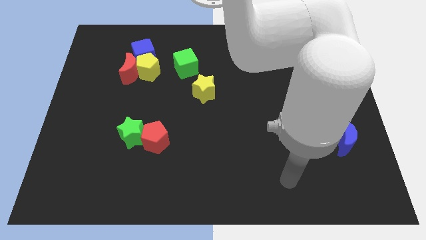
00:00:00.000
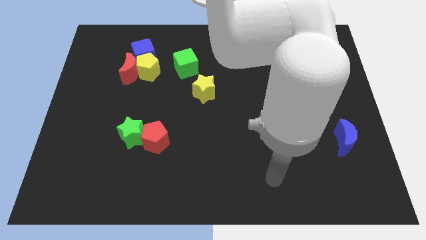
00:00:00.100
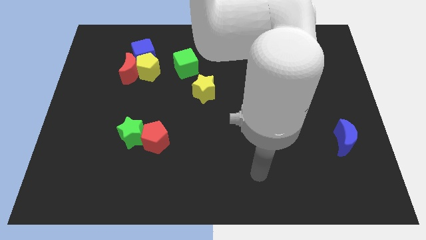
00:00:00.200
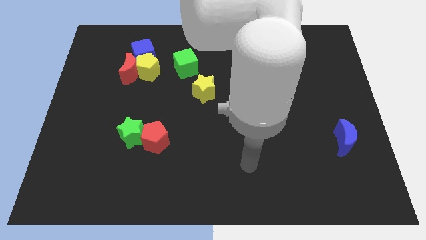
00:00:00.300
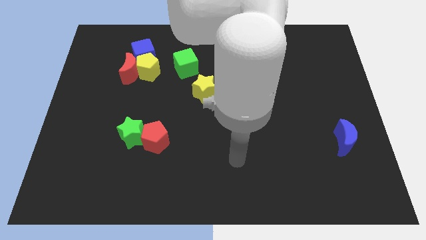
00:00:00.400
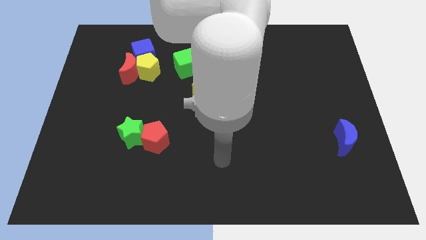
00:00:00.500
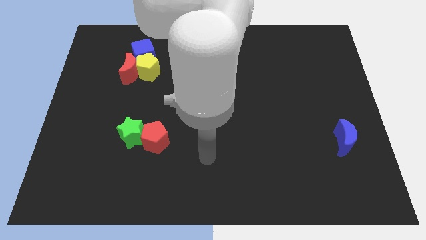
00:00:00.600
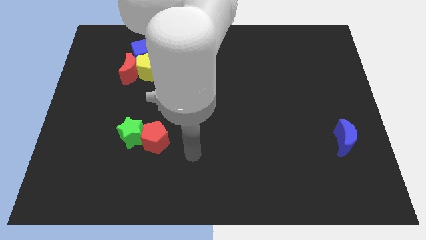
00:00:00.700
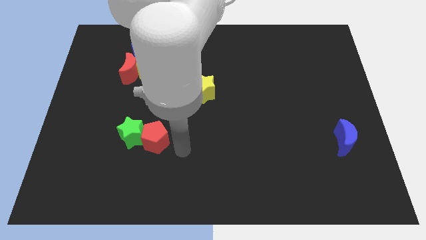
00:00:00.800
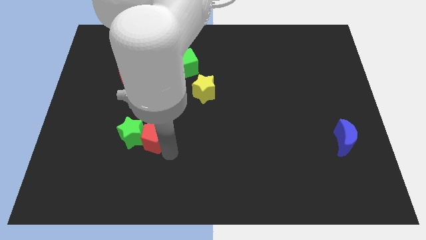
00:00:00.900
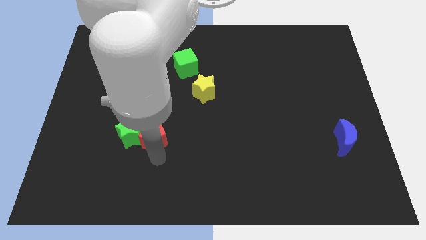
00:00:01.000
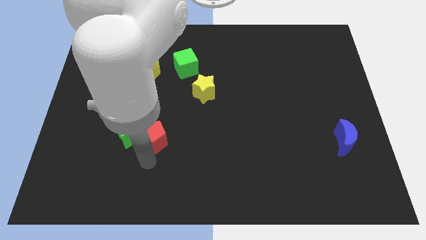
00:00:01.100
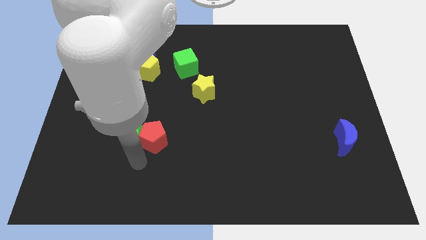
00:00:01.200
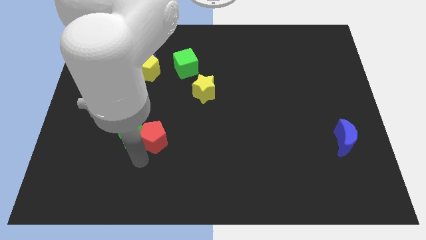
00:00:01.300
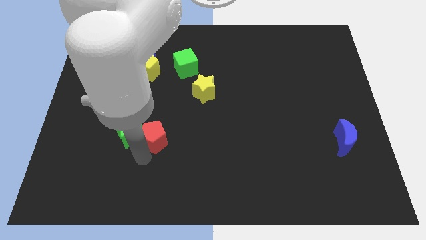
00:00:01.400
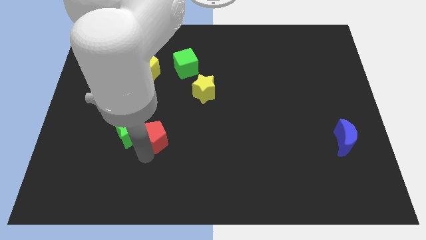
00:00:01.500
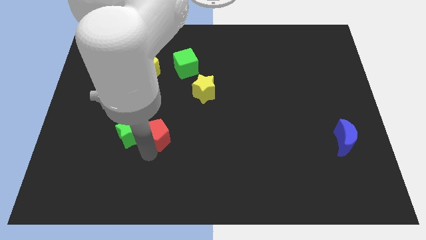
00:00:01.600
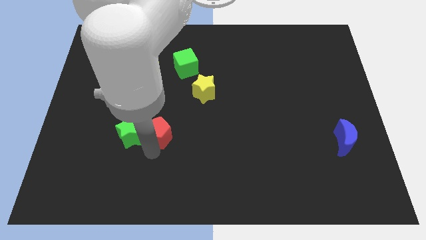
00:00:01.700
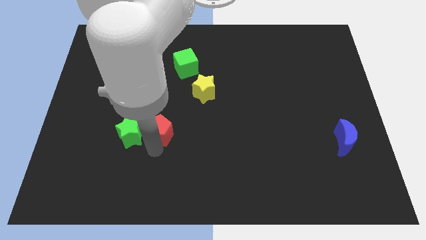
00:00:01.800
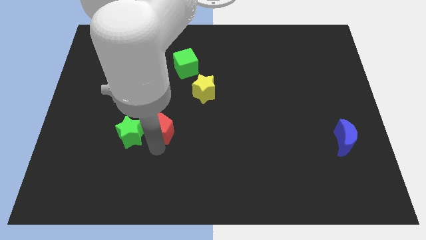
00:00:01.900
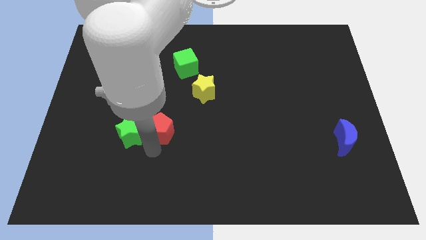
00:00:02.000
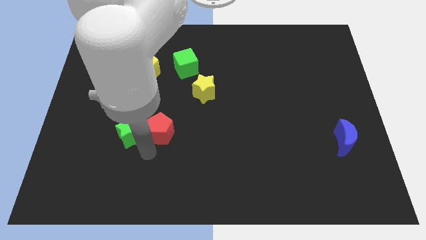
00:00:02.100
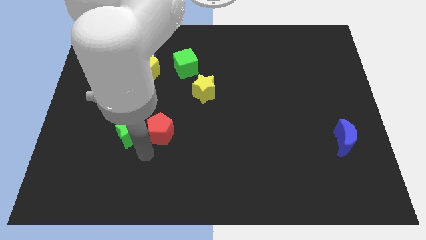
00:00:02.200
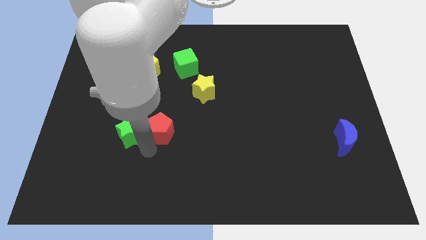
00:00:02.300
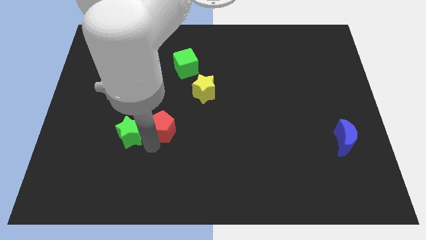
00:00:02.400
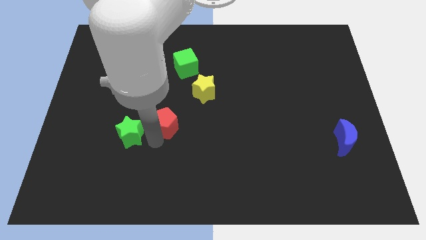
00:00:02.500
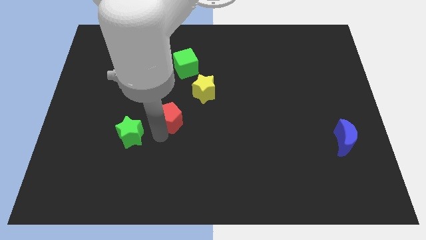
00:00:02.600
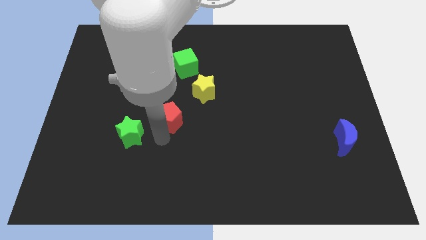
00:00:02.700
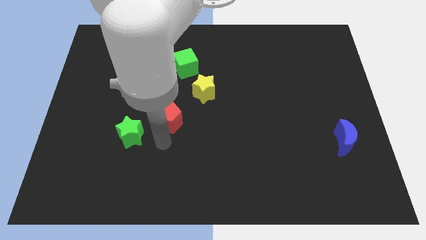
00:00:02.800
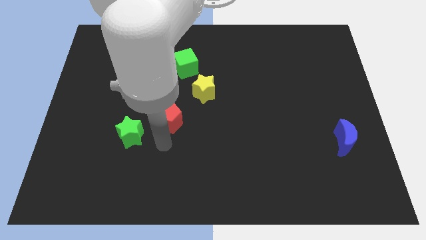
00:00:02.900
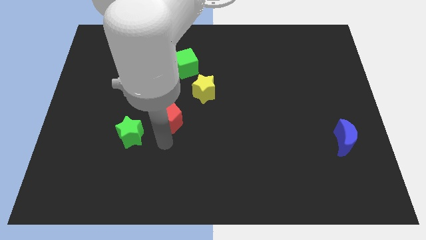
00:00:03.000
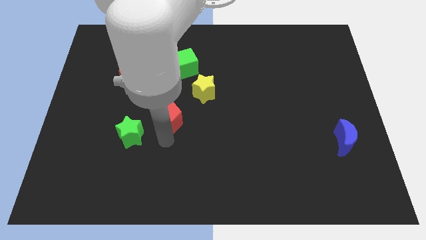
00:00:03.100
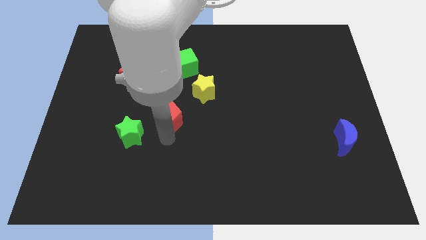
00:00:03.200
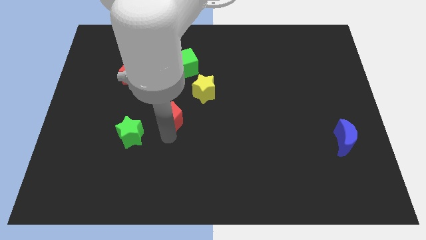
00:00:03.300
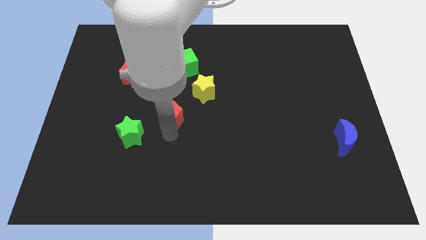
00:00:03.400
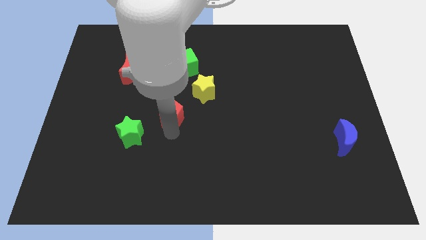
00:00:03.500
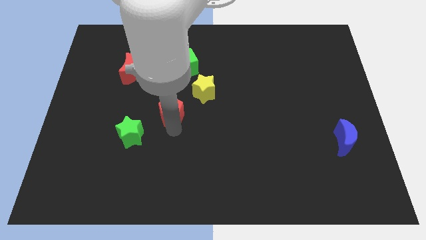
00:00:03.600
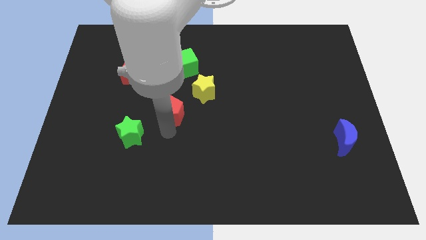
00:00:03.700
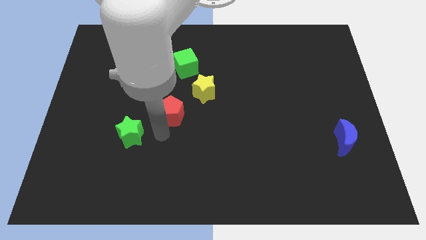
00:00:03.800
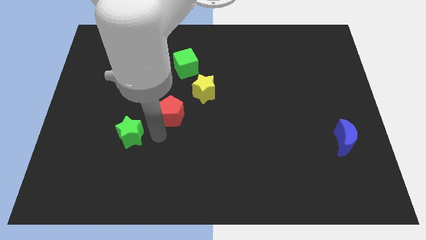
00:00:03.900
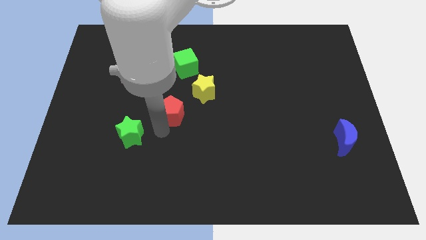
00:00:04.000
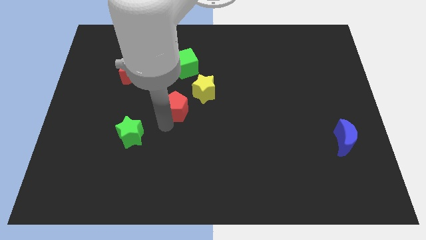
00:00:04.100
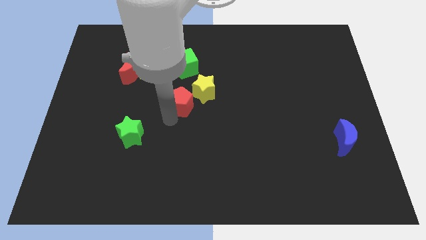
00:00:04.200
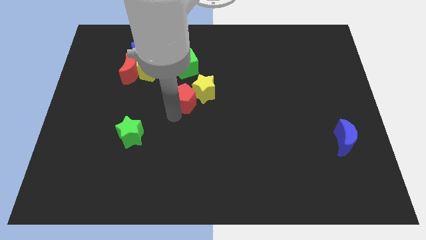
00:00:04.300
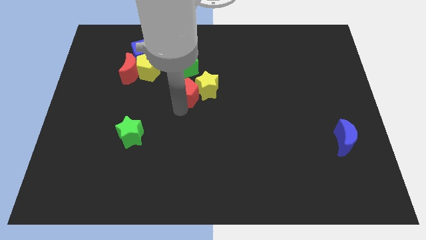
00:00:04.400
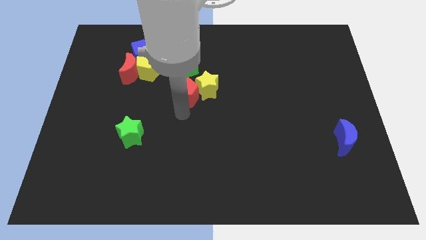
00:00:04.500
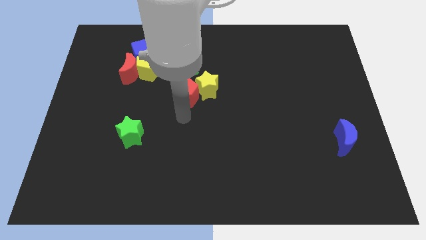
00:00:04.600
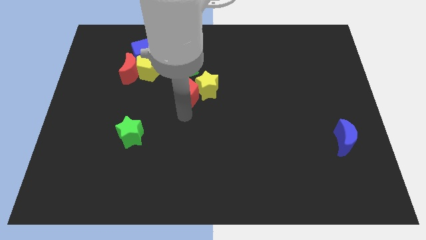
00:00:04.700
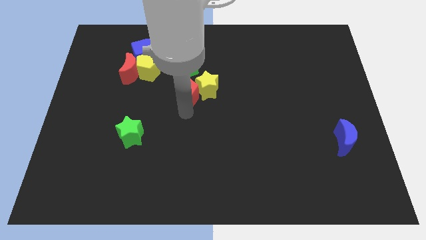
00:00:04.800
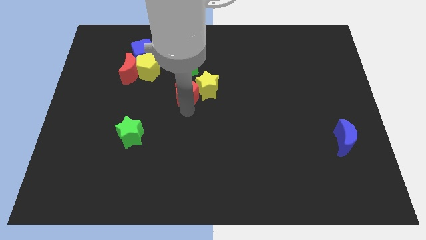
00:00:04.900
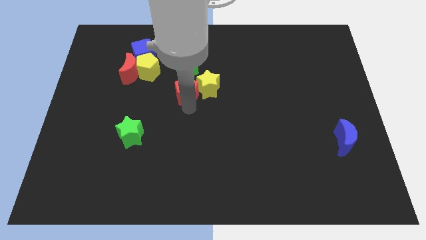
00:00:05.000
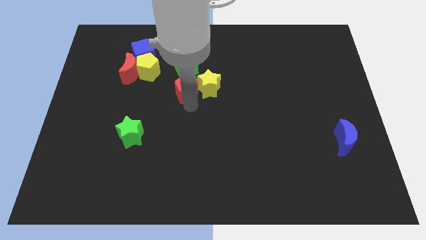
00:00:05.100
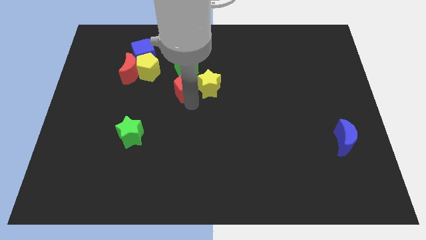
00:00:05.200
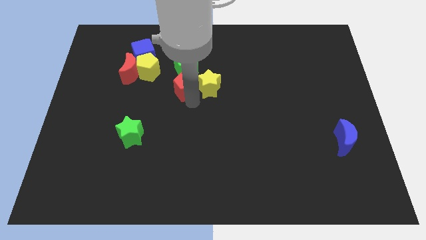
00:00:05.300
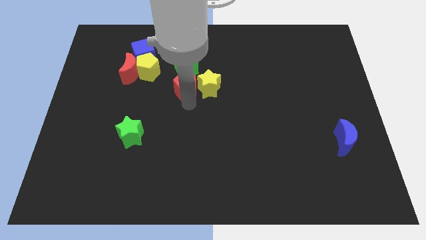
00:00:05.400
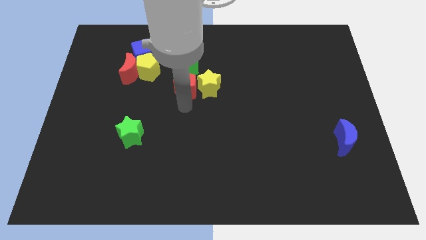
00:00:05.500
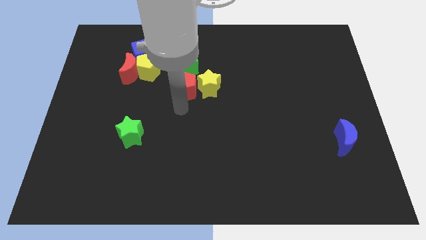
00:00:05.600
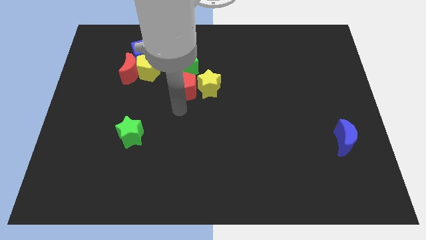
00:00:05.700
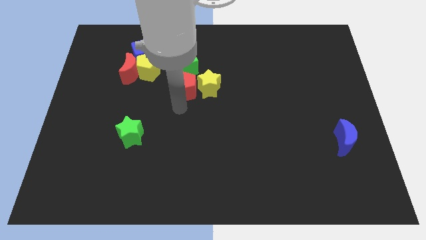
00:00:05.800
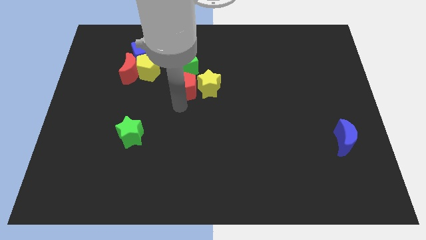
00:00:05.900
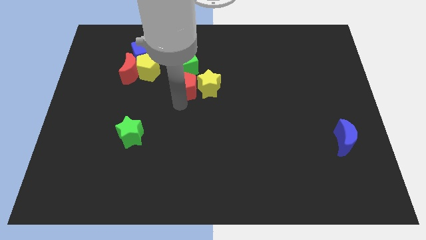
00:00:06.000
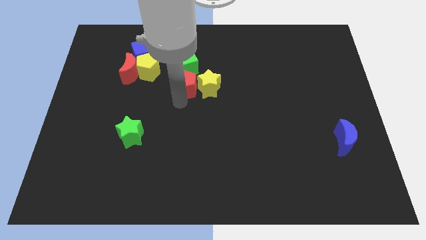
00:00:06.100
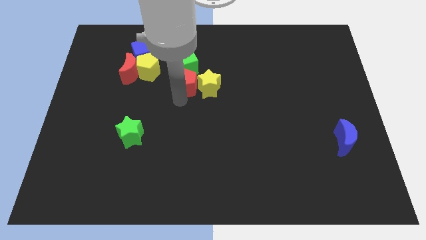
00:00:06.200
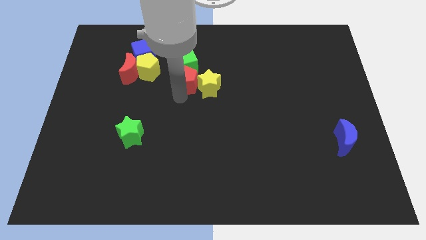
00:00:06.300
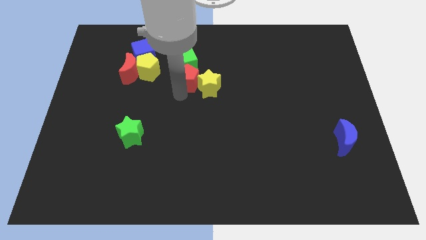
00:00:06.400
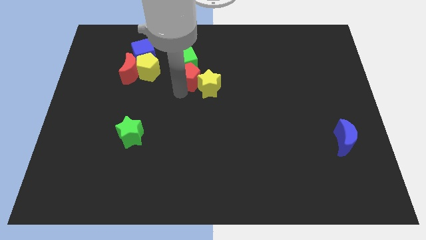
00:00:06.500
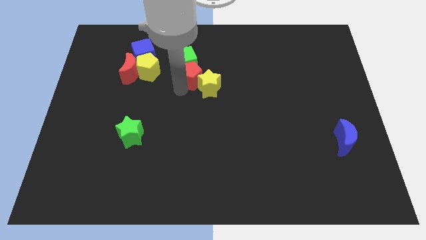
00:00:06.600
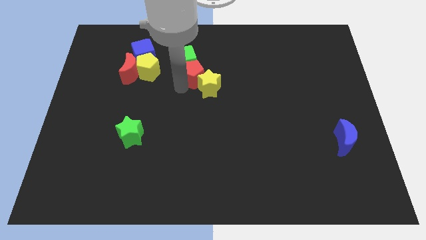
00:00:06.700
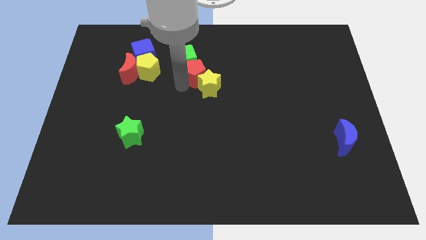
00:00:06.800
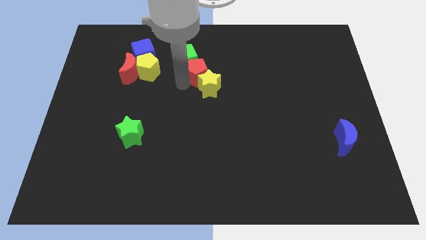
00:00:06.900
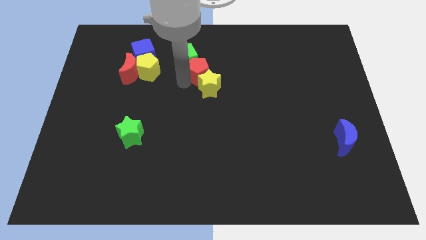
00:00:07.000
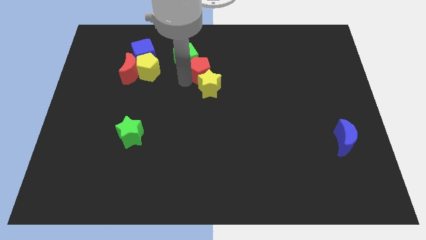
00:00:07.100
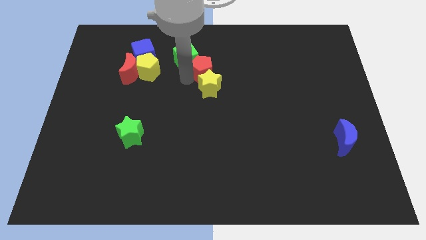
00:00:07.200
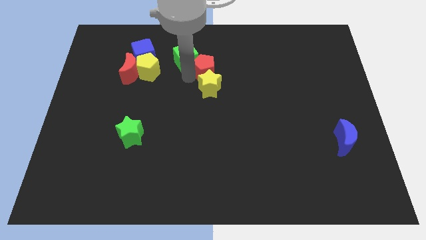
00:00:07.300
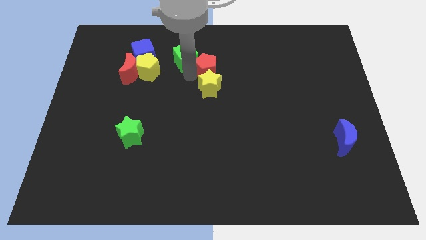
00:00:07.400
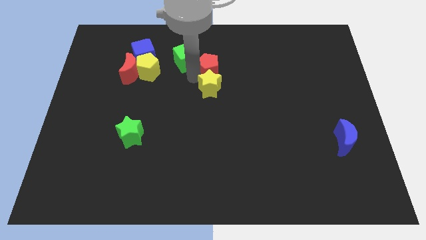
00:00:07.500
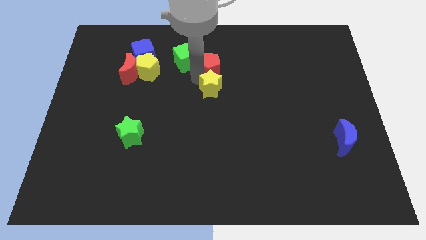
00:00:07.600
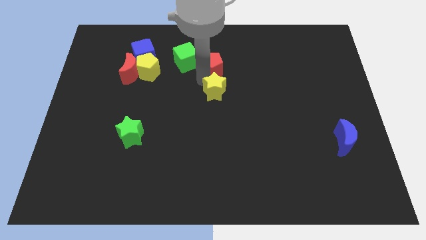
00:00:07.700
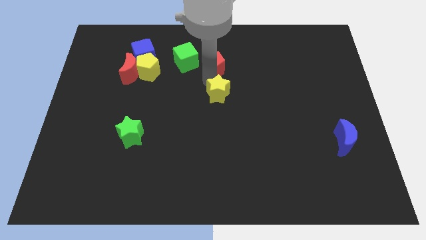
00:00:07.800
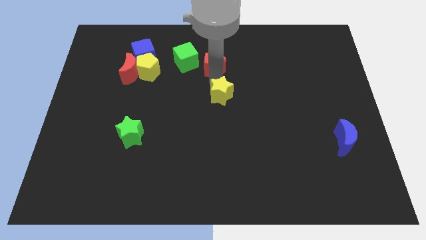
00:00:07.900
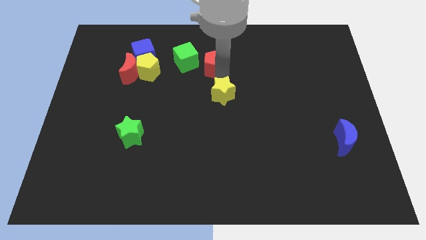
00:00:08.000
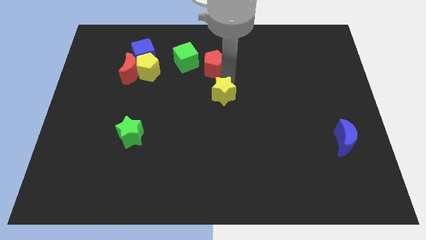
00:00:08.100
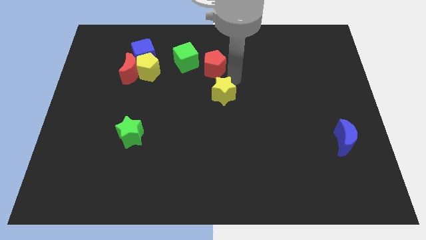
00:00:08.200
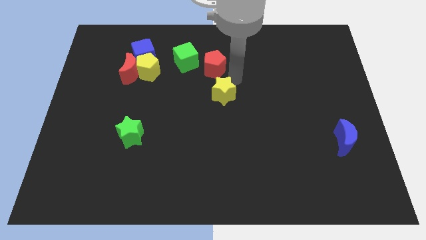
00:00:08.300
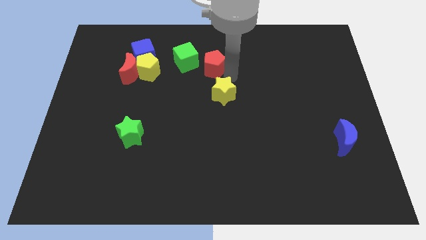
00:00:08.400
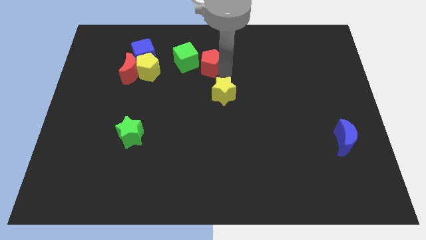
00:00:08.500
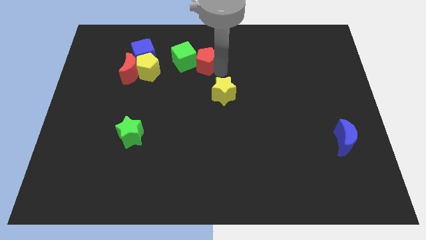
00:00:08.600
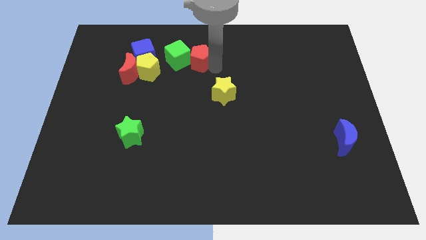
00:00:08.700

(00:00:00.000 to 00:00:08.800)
move the red pentagon just right of the blue cube
